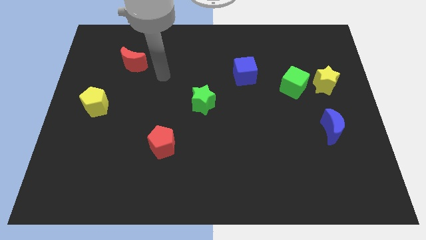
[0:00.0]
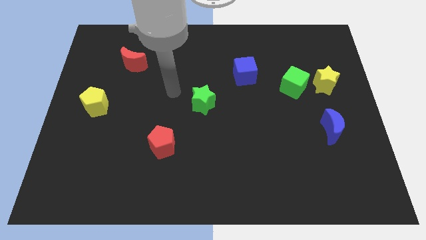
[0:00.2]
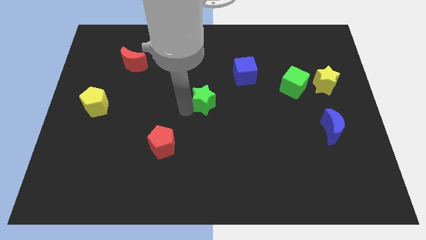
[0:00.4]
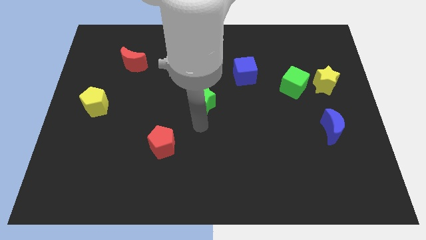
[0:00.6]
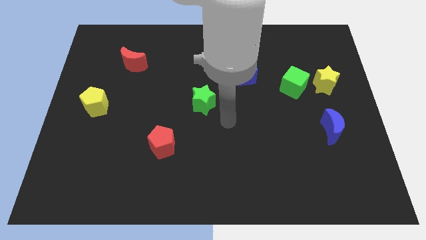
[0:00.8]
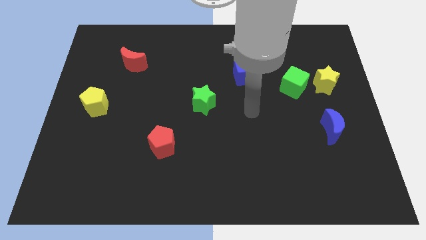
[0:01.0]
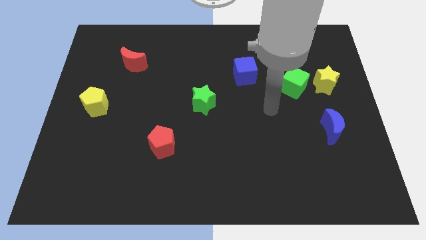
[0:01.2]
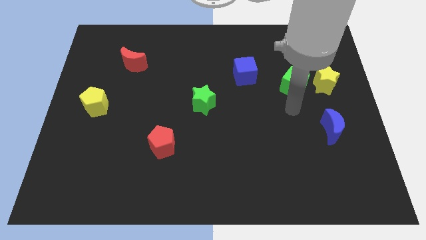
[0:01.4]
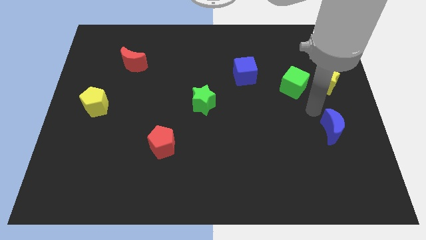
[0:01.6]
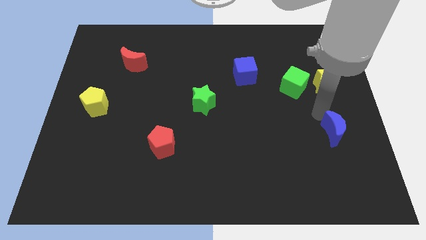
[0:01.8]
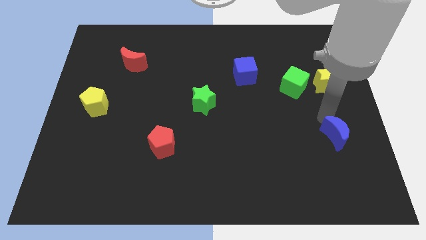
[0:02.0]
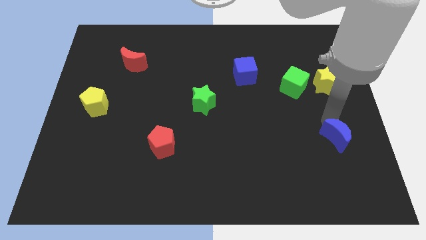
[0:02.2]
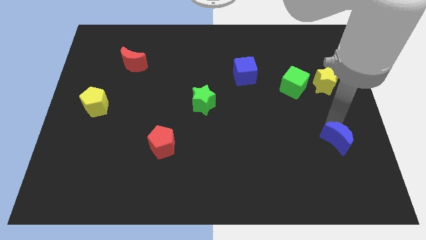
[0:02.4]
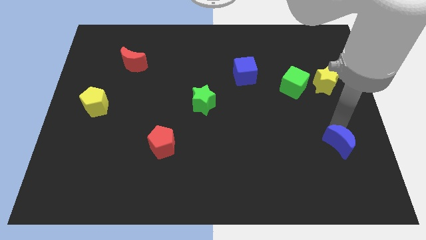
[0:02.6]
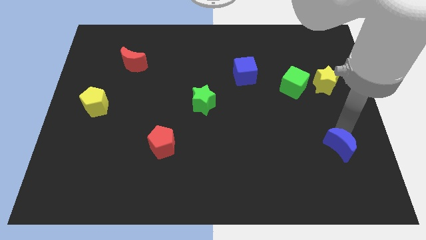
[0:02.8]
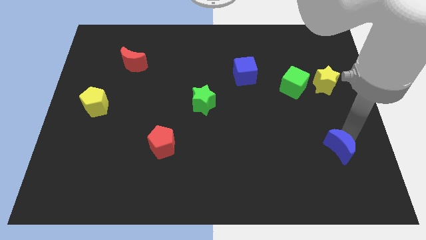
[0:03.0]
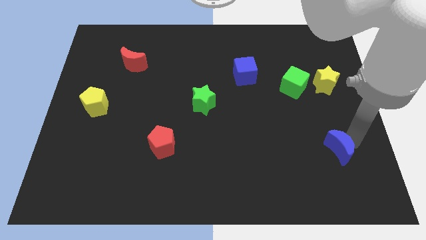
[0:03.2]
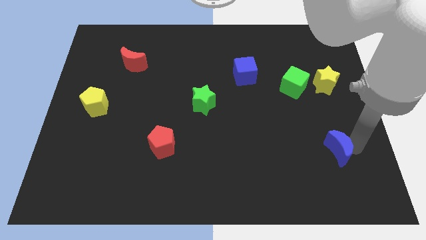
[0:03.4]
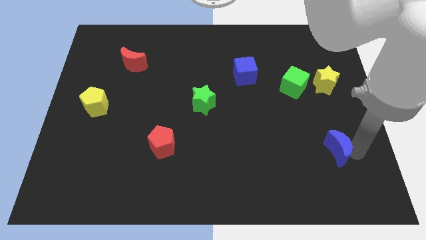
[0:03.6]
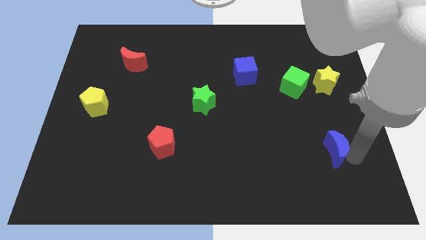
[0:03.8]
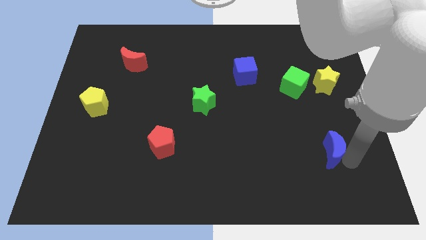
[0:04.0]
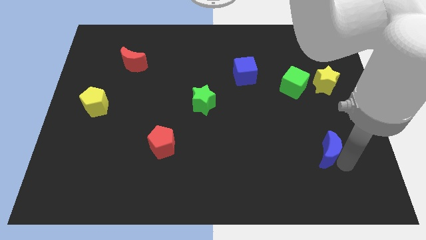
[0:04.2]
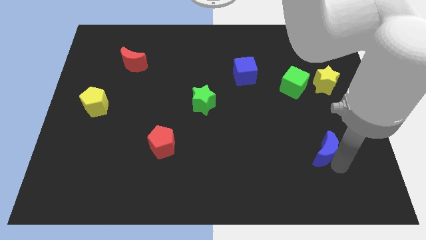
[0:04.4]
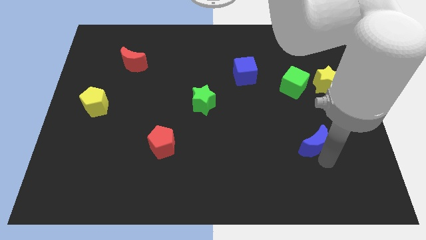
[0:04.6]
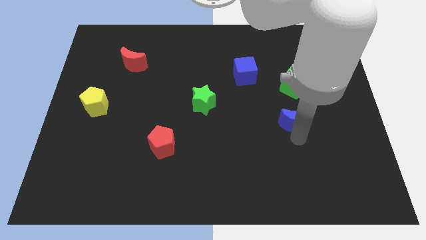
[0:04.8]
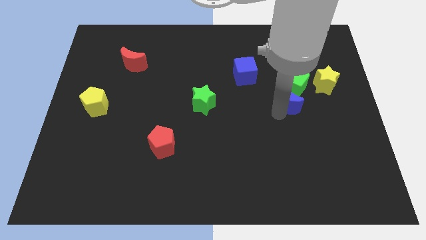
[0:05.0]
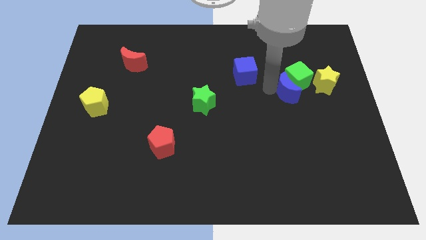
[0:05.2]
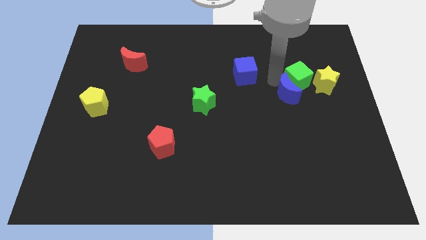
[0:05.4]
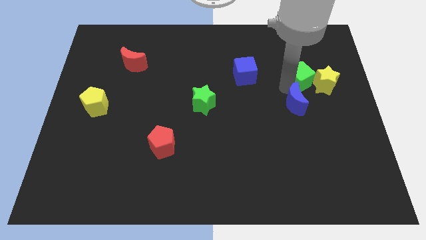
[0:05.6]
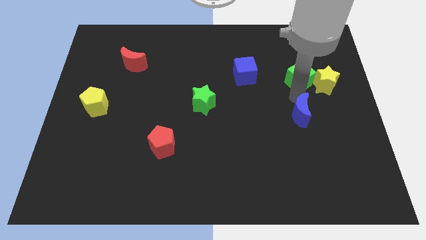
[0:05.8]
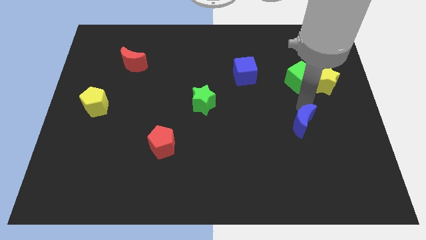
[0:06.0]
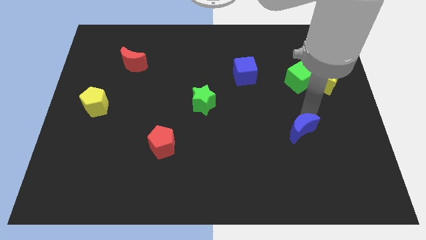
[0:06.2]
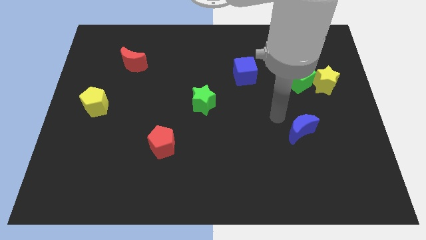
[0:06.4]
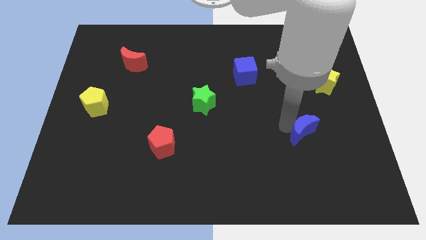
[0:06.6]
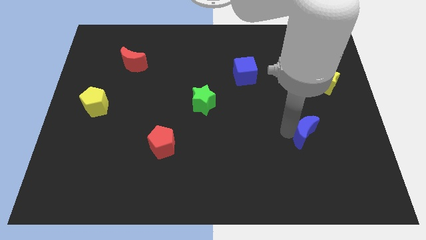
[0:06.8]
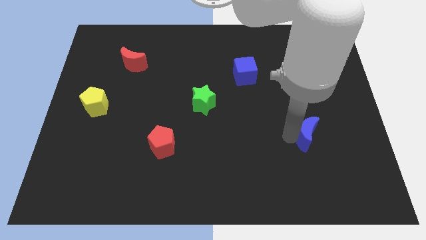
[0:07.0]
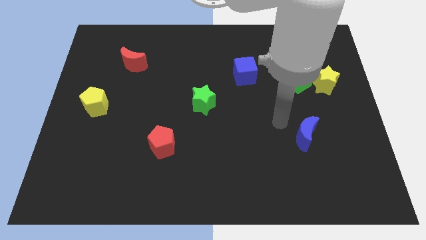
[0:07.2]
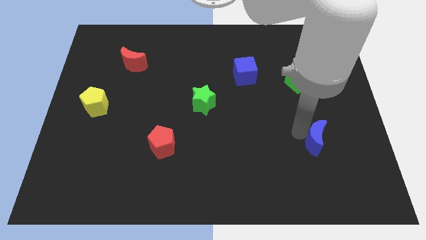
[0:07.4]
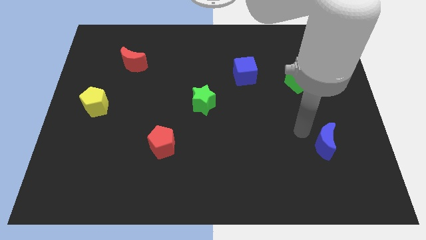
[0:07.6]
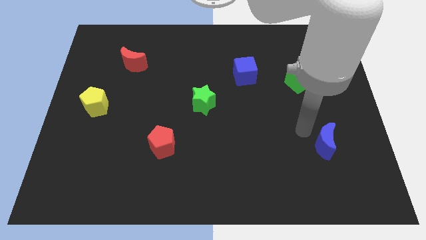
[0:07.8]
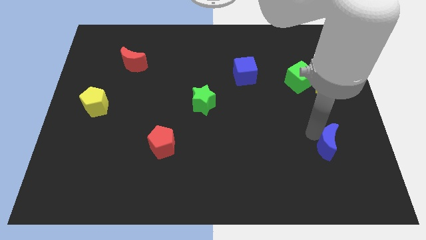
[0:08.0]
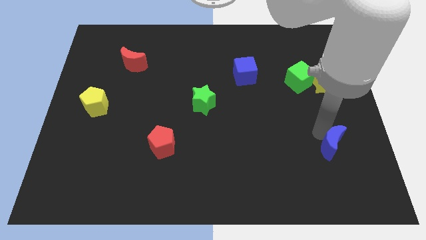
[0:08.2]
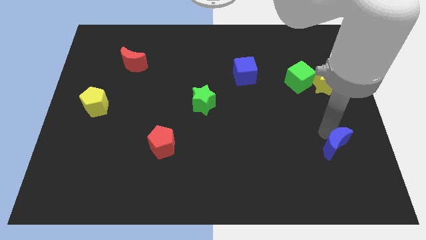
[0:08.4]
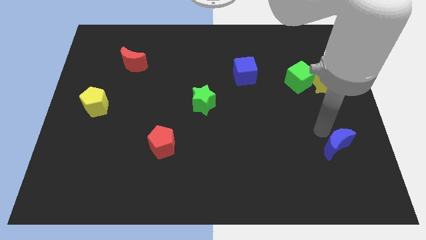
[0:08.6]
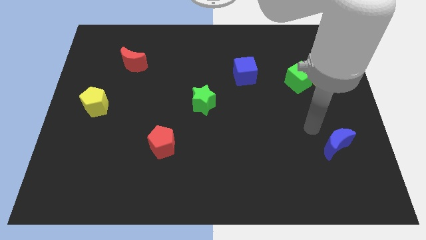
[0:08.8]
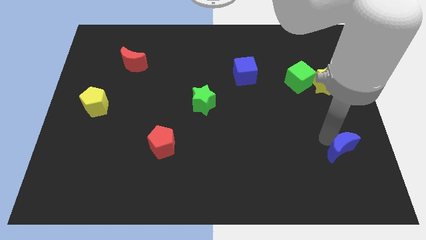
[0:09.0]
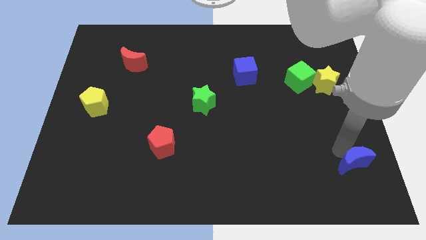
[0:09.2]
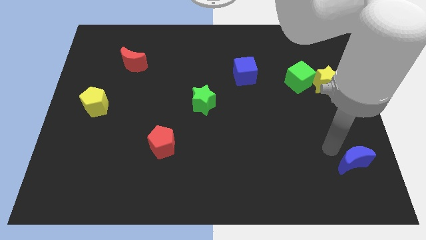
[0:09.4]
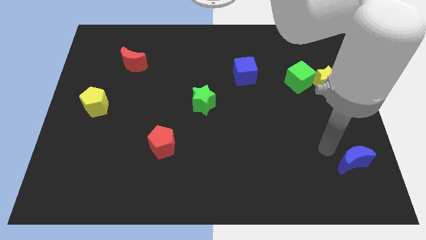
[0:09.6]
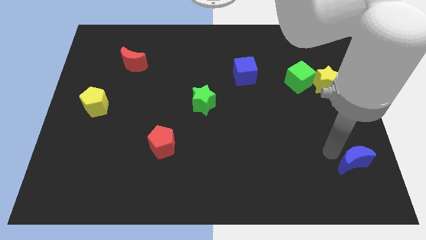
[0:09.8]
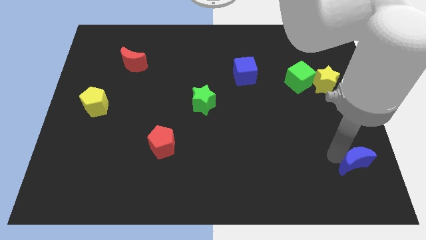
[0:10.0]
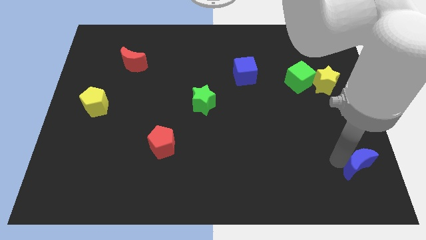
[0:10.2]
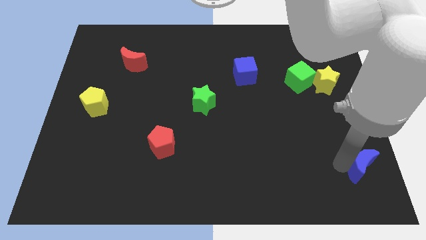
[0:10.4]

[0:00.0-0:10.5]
move the blue moon to the bottom right corner
